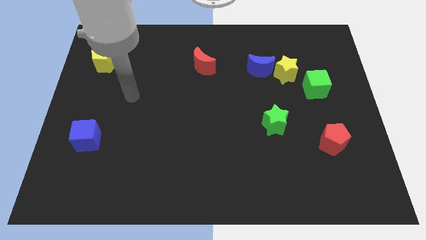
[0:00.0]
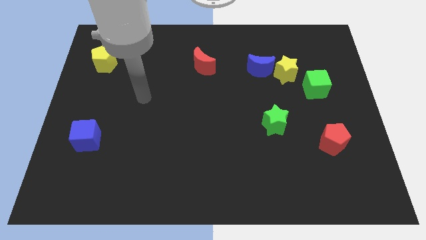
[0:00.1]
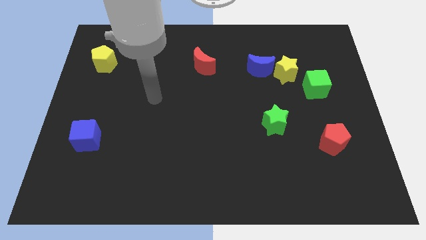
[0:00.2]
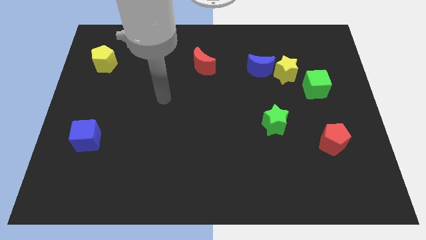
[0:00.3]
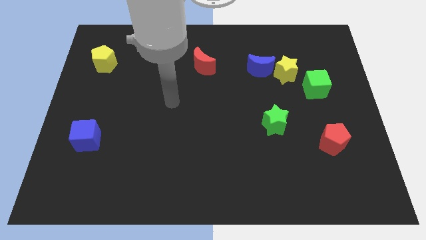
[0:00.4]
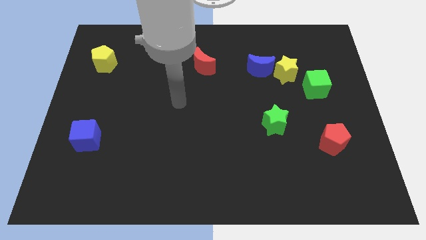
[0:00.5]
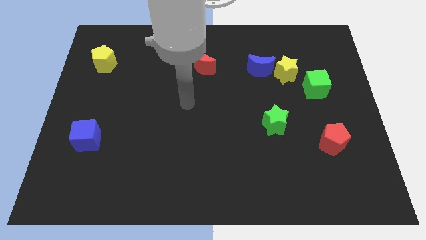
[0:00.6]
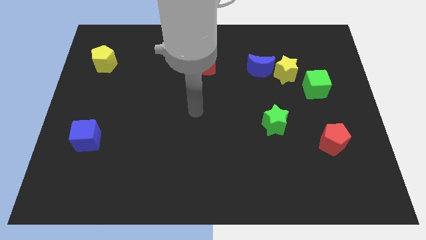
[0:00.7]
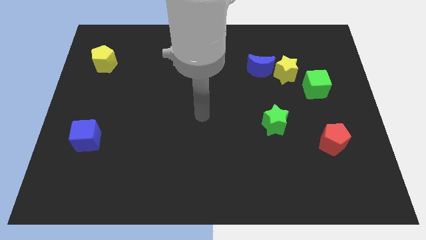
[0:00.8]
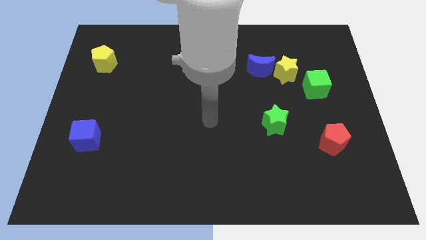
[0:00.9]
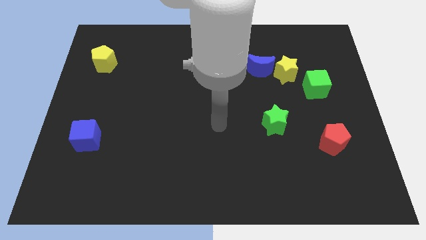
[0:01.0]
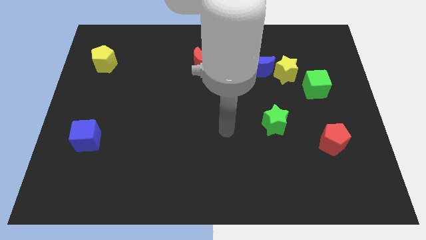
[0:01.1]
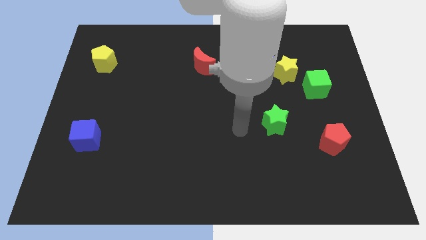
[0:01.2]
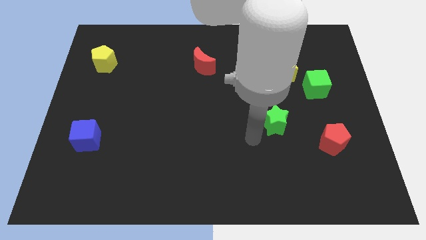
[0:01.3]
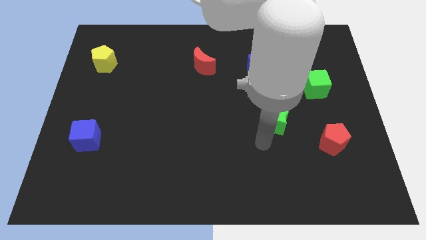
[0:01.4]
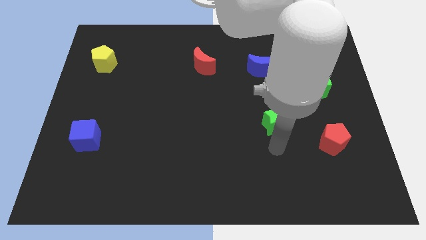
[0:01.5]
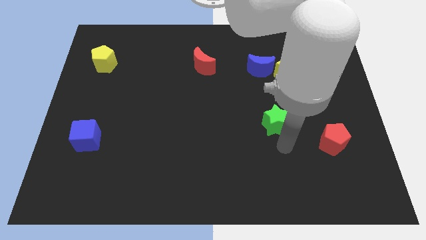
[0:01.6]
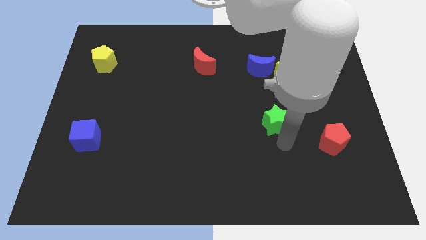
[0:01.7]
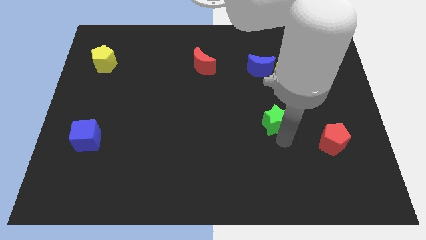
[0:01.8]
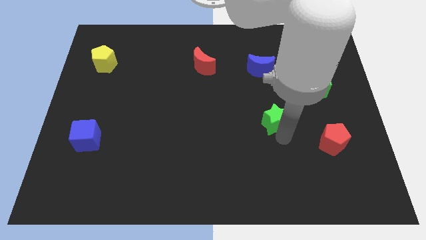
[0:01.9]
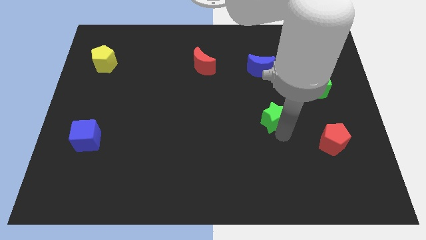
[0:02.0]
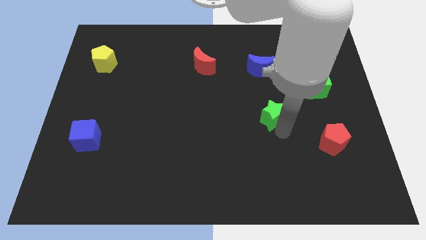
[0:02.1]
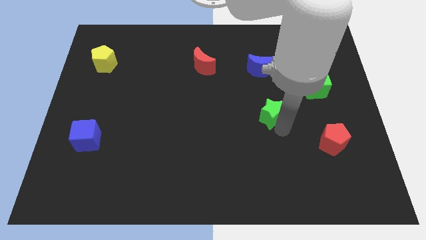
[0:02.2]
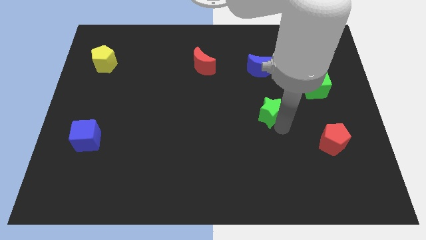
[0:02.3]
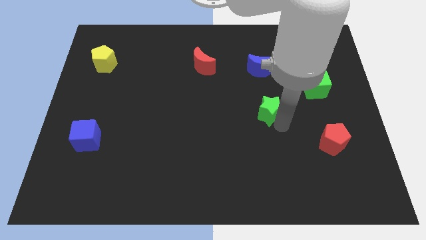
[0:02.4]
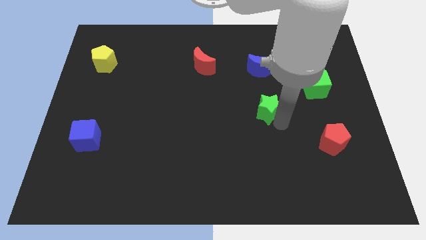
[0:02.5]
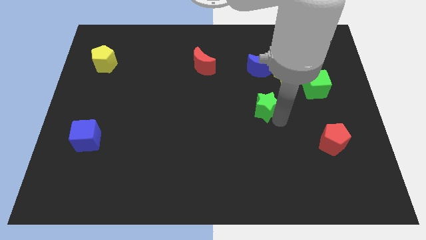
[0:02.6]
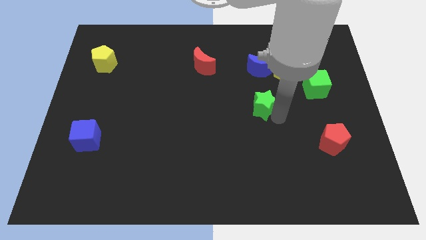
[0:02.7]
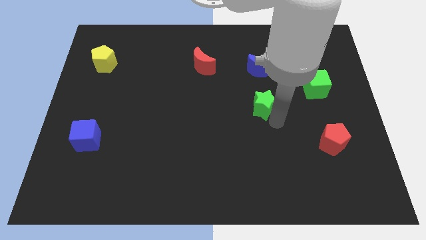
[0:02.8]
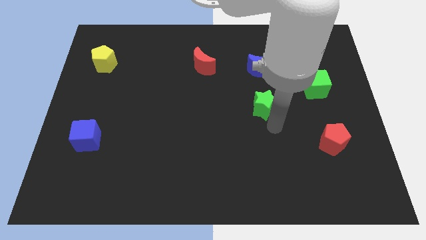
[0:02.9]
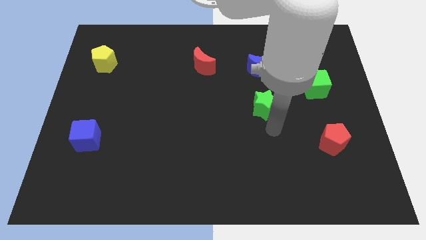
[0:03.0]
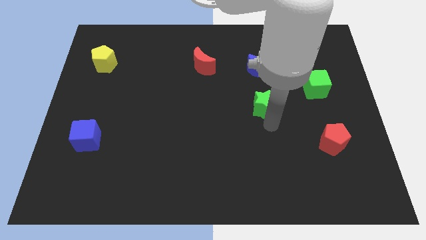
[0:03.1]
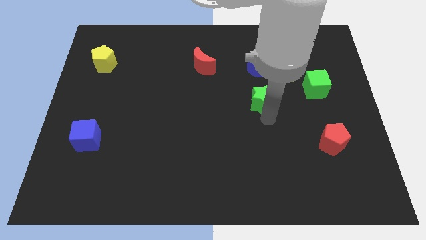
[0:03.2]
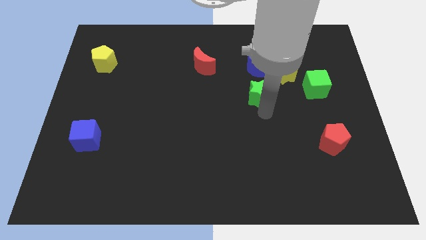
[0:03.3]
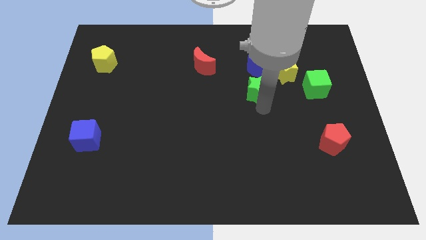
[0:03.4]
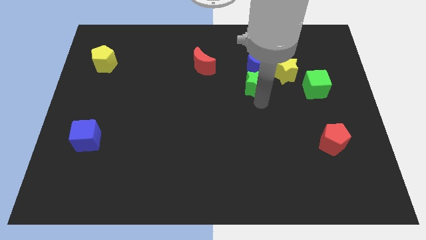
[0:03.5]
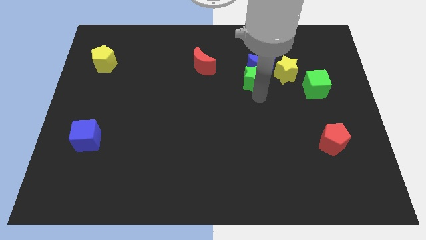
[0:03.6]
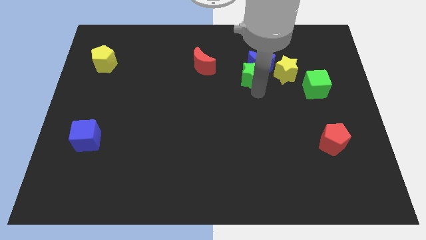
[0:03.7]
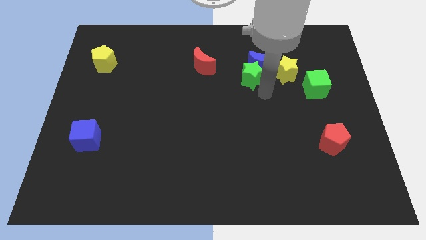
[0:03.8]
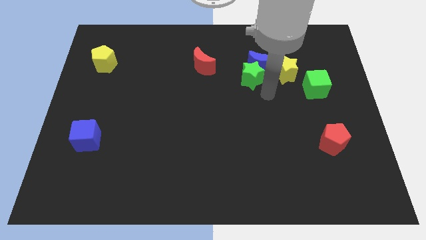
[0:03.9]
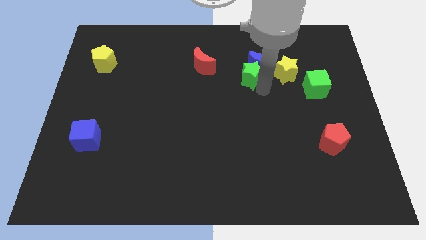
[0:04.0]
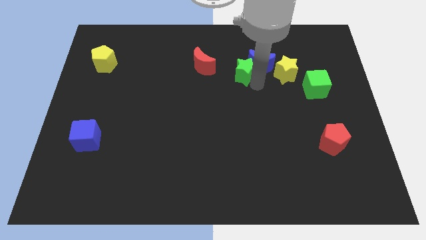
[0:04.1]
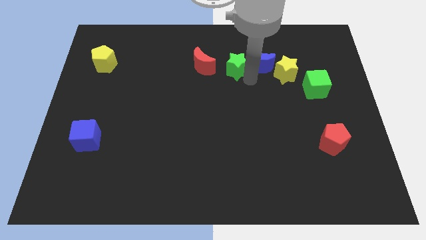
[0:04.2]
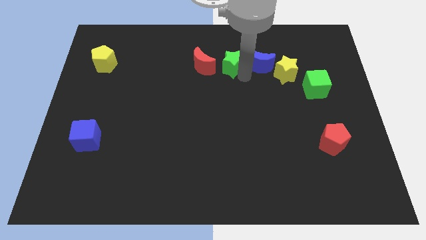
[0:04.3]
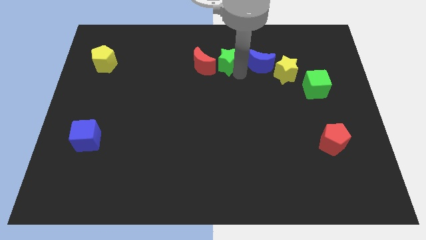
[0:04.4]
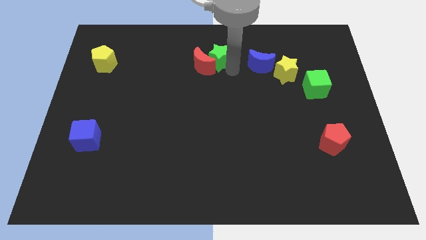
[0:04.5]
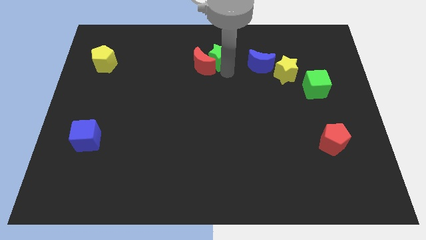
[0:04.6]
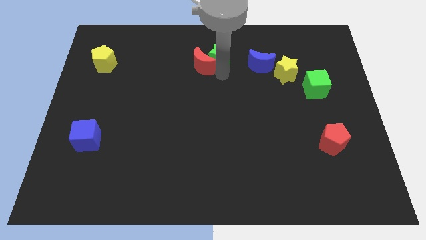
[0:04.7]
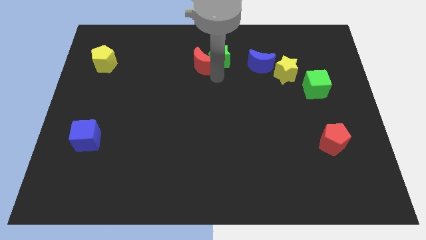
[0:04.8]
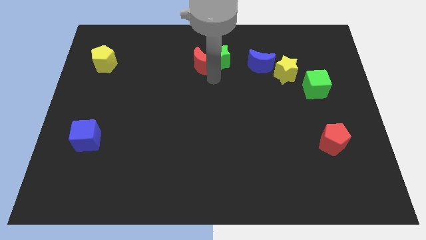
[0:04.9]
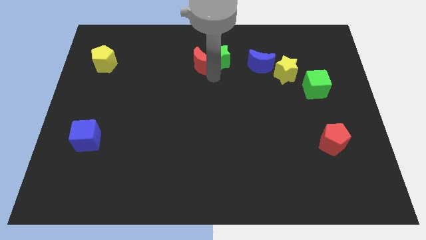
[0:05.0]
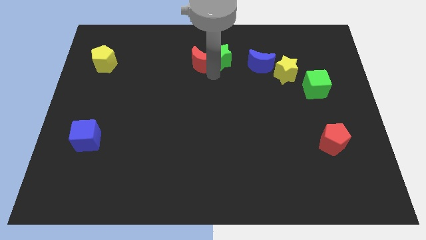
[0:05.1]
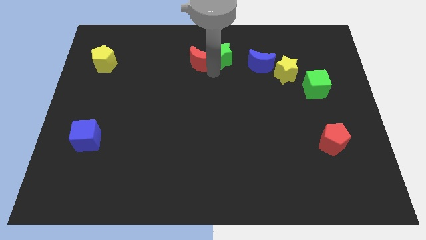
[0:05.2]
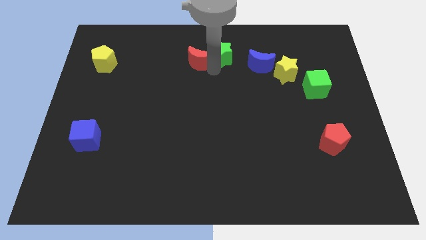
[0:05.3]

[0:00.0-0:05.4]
move the green star to the towards your base

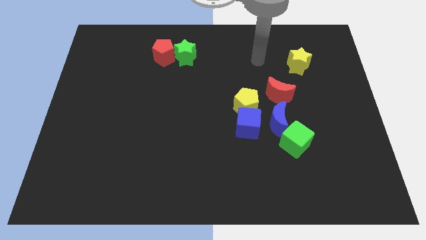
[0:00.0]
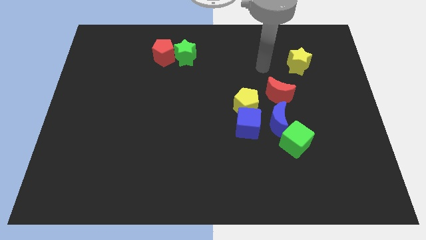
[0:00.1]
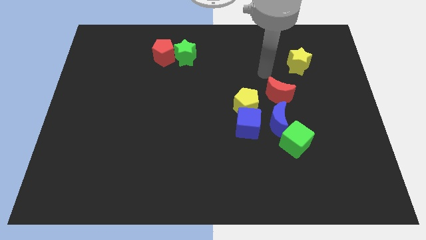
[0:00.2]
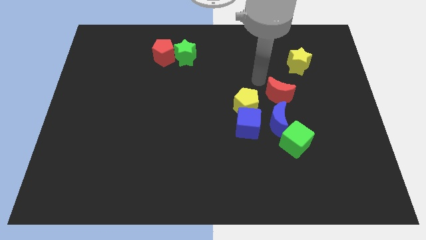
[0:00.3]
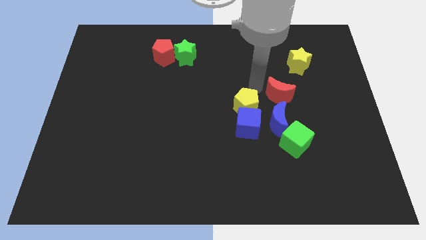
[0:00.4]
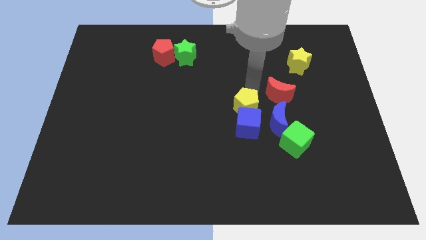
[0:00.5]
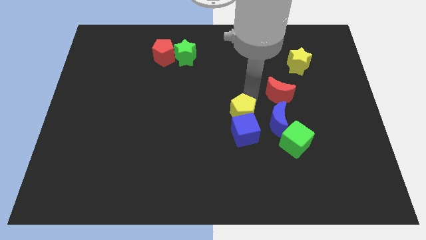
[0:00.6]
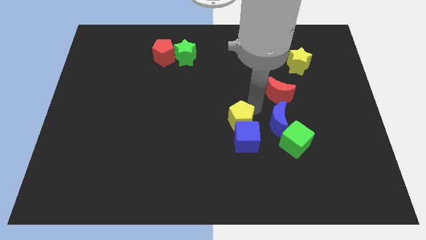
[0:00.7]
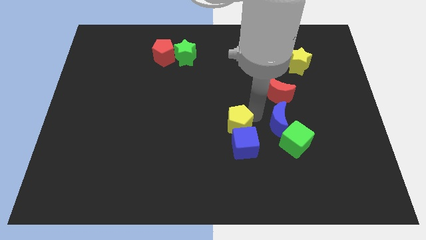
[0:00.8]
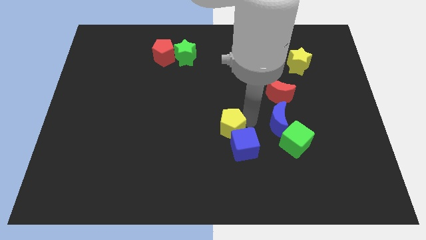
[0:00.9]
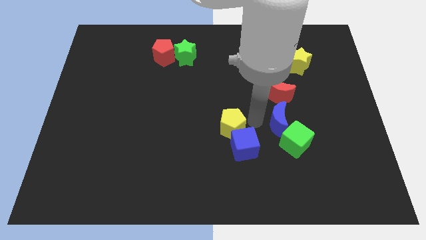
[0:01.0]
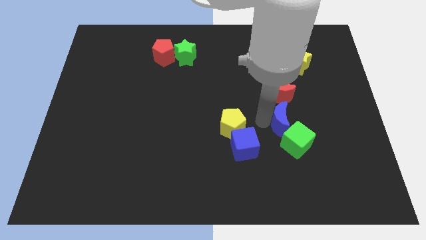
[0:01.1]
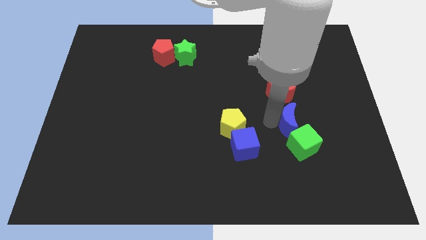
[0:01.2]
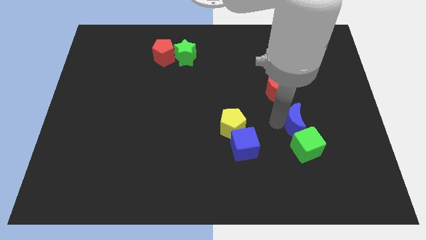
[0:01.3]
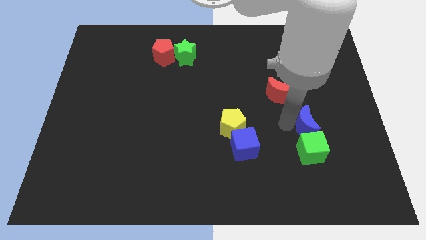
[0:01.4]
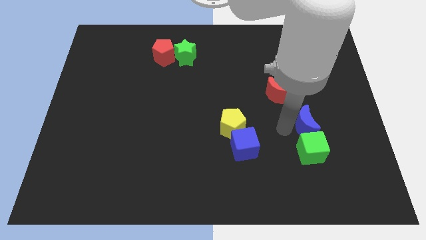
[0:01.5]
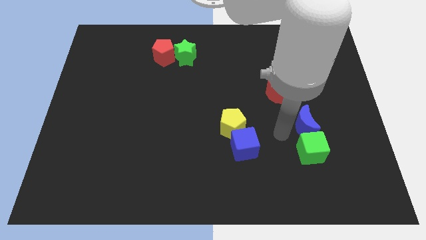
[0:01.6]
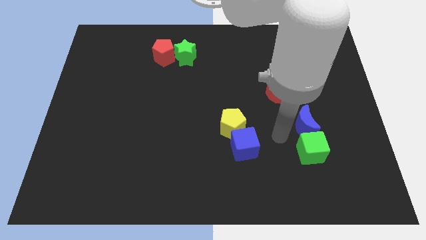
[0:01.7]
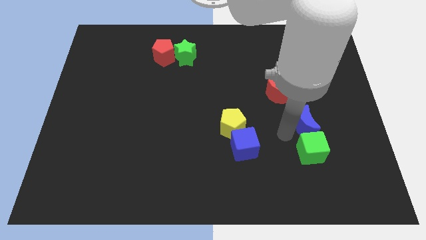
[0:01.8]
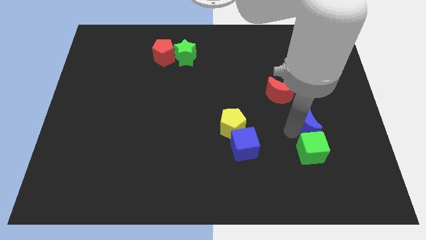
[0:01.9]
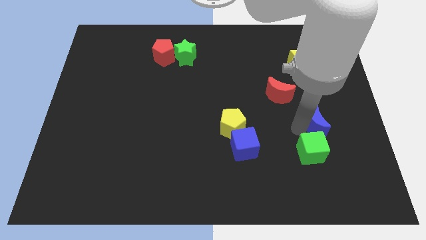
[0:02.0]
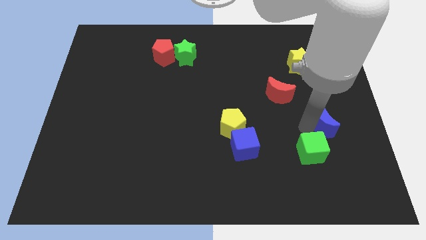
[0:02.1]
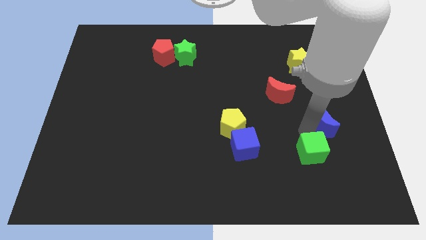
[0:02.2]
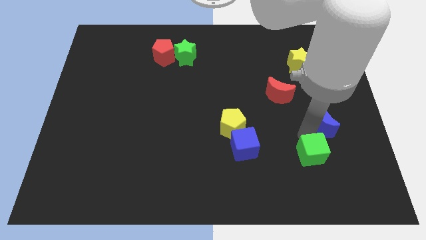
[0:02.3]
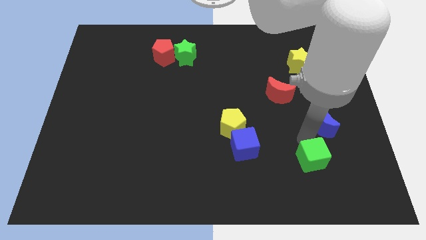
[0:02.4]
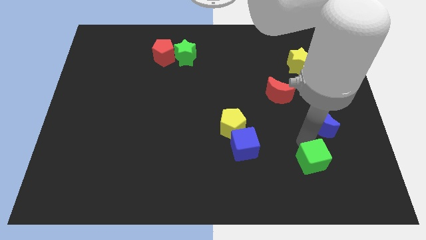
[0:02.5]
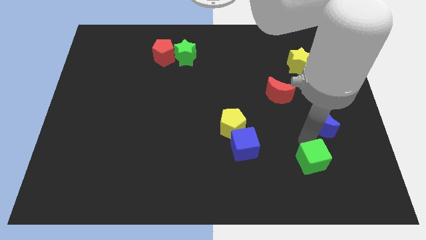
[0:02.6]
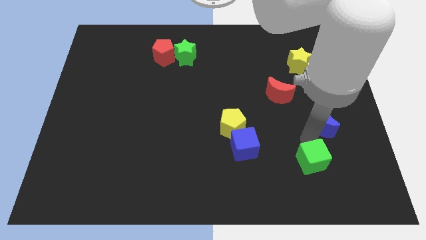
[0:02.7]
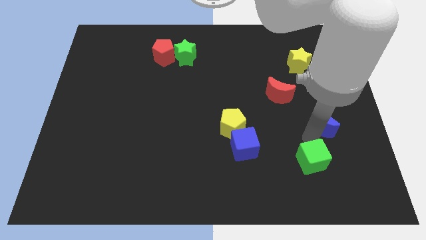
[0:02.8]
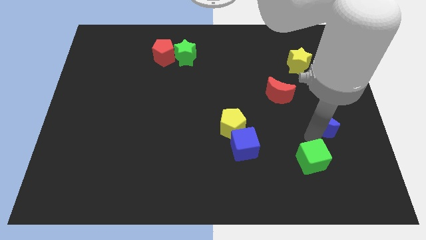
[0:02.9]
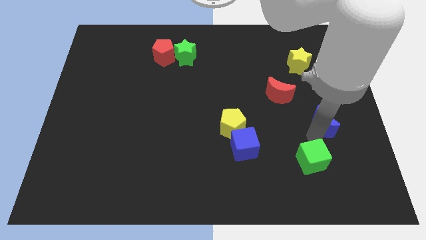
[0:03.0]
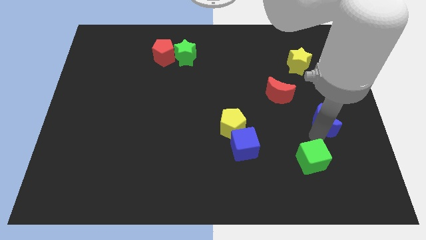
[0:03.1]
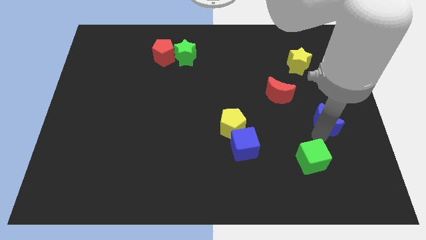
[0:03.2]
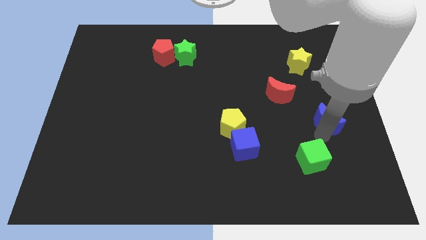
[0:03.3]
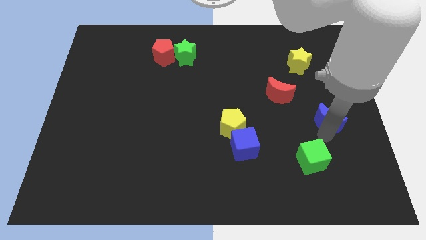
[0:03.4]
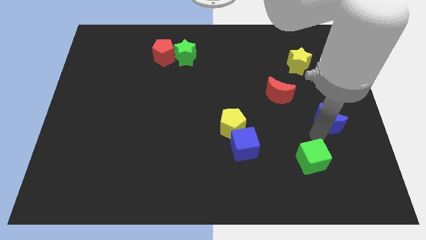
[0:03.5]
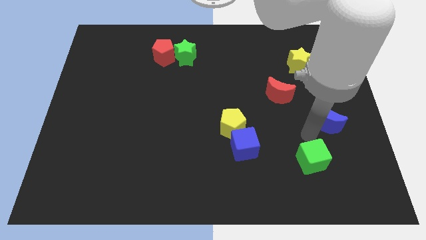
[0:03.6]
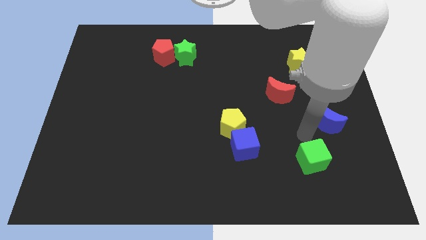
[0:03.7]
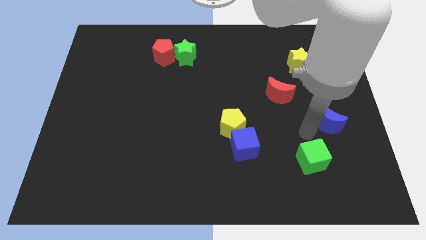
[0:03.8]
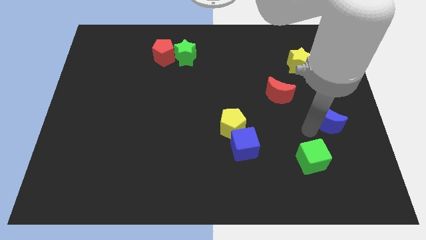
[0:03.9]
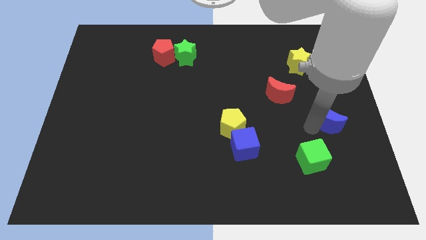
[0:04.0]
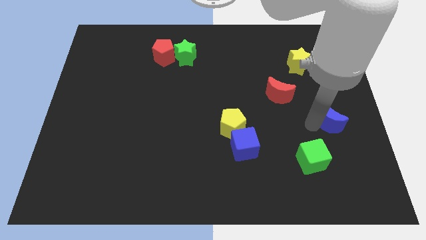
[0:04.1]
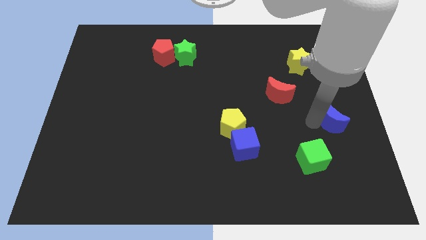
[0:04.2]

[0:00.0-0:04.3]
push the blue moon to the center right
